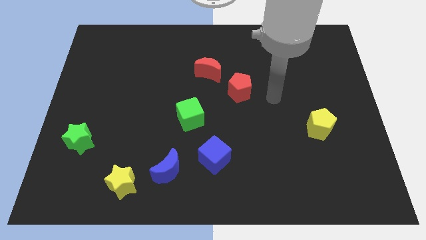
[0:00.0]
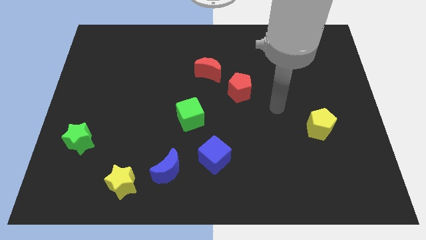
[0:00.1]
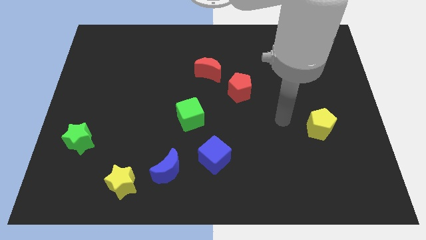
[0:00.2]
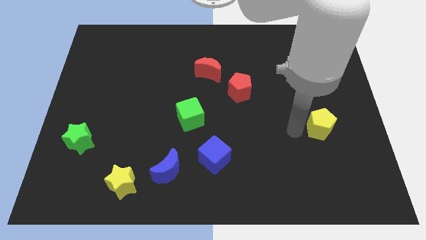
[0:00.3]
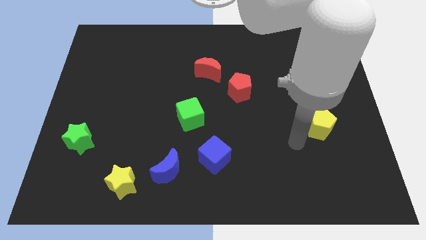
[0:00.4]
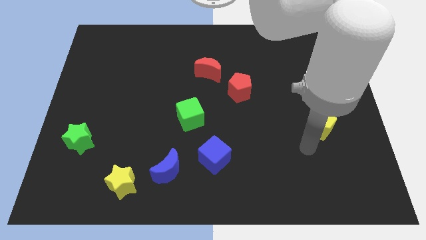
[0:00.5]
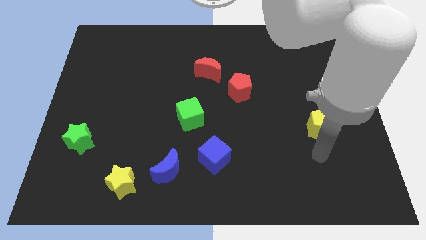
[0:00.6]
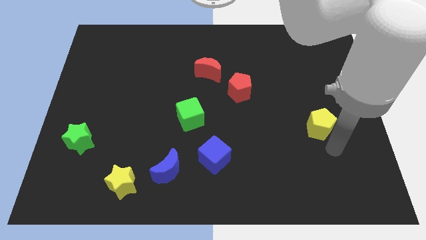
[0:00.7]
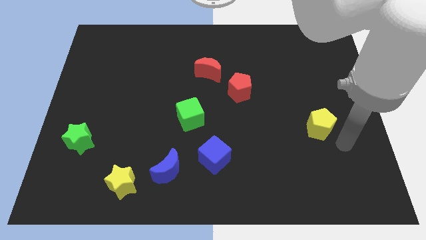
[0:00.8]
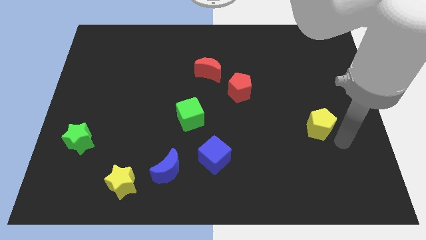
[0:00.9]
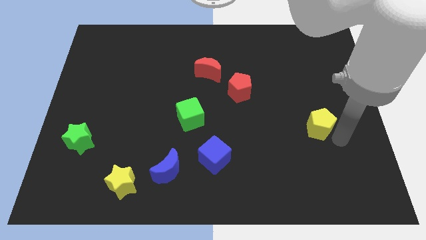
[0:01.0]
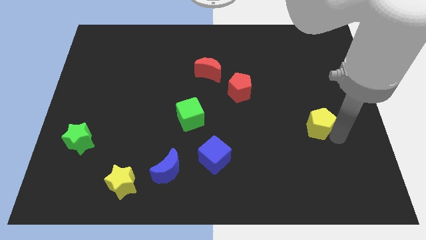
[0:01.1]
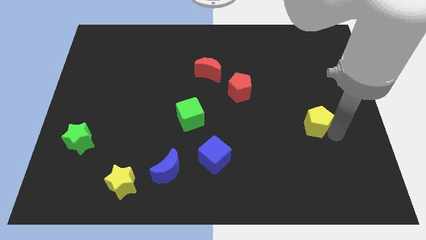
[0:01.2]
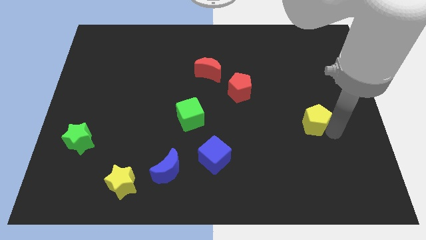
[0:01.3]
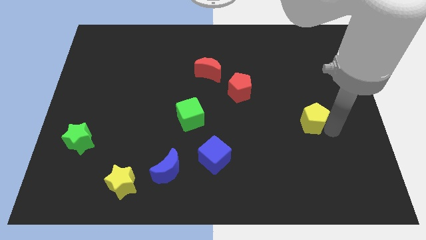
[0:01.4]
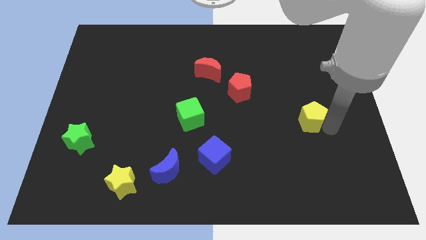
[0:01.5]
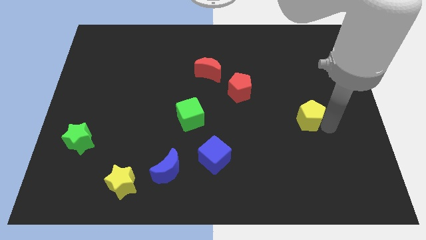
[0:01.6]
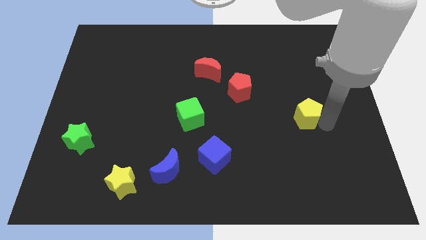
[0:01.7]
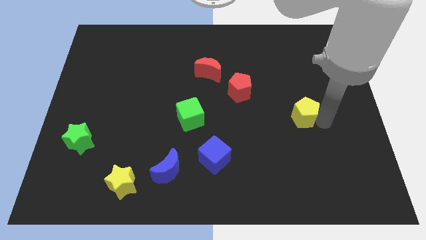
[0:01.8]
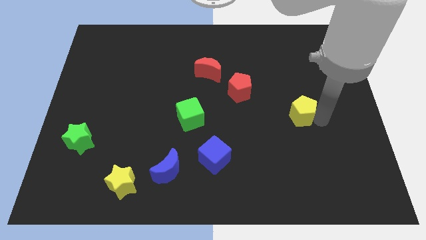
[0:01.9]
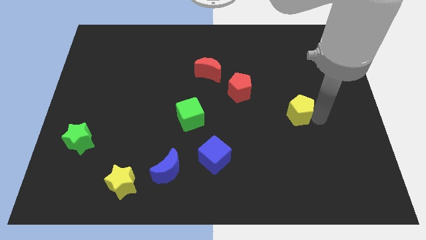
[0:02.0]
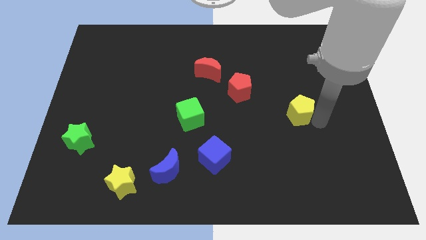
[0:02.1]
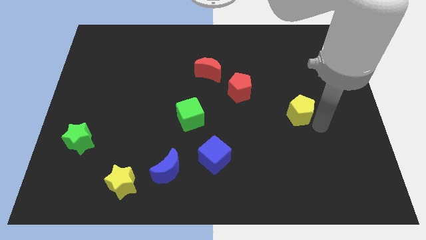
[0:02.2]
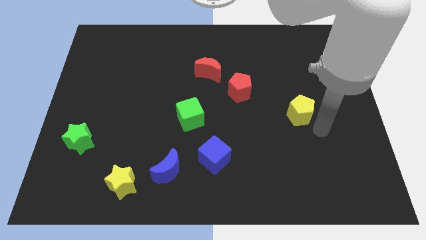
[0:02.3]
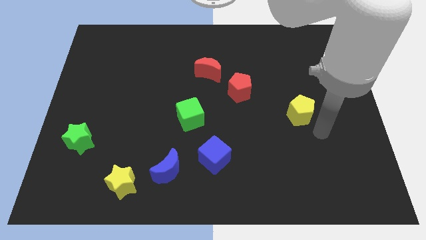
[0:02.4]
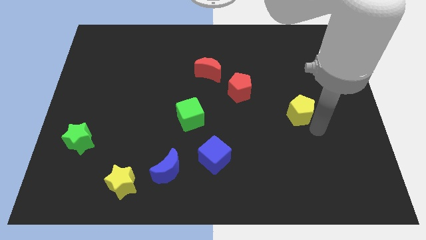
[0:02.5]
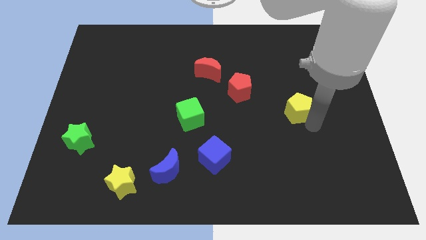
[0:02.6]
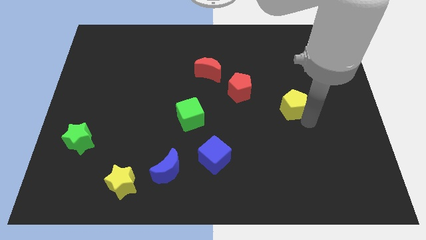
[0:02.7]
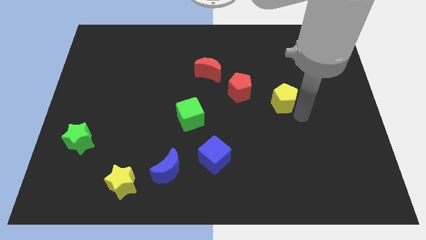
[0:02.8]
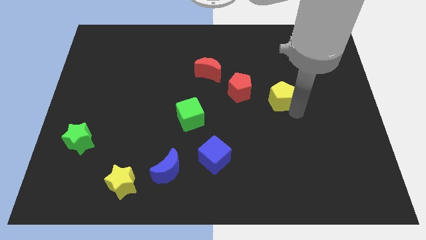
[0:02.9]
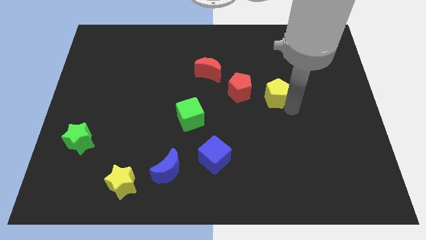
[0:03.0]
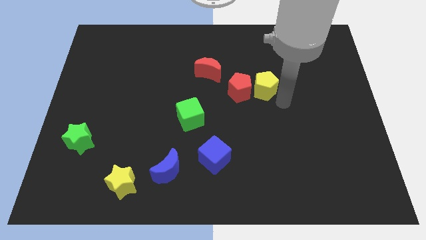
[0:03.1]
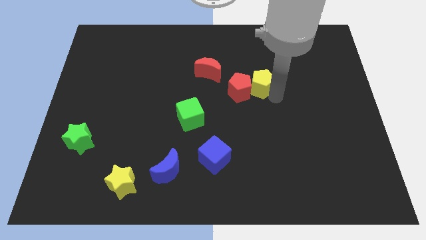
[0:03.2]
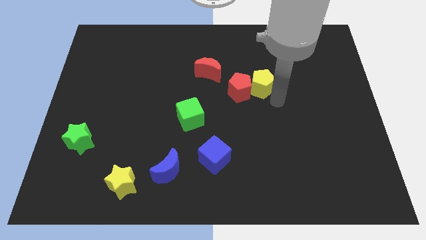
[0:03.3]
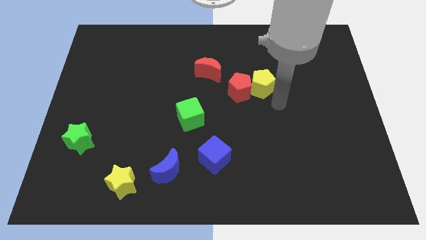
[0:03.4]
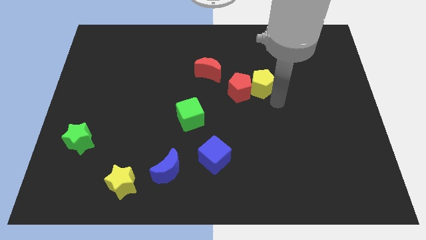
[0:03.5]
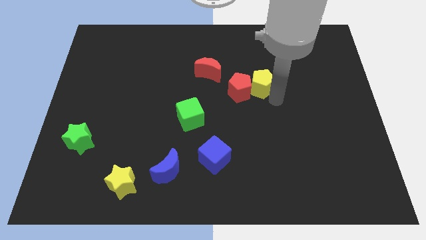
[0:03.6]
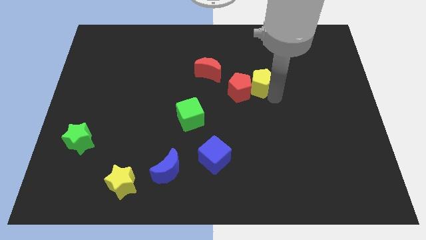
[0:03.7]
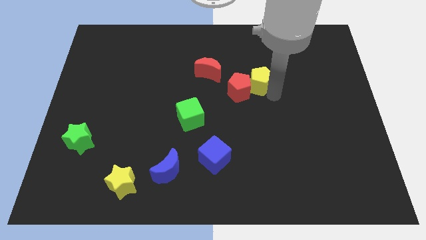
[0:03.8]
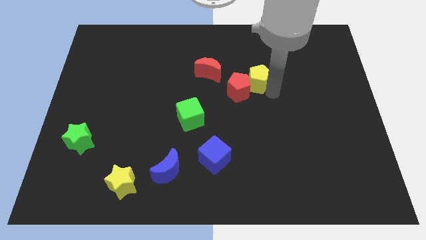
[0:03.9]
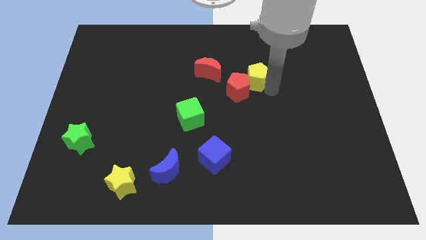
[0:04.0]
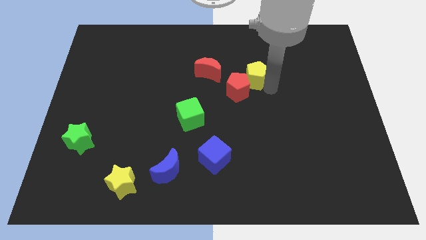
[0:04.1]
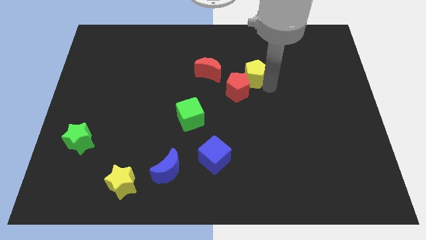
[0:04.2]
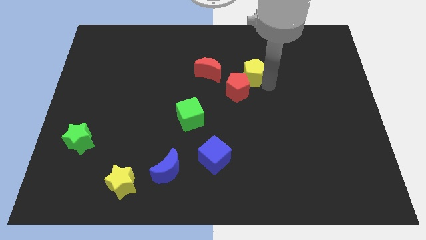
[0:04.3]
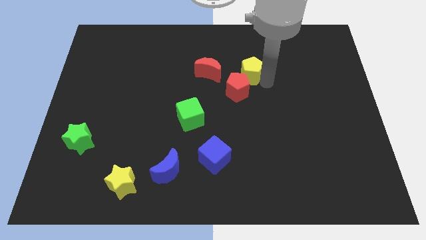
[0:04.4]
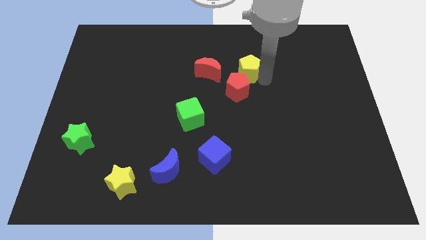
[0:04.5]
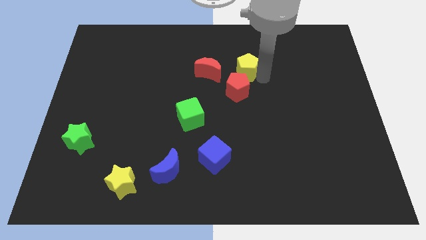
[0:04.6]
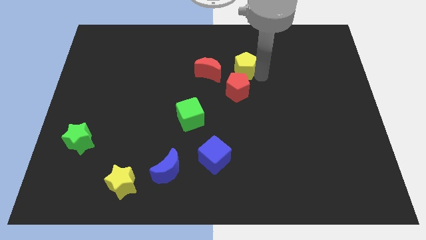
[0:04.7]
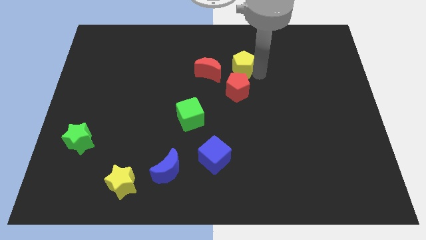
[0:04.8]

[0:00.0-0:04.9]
slide the yellow pentagon diagonally up and to the right of the red moon

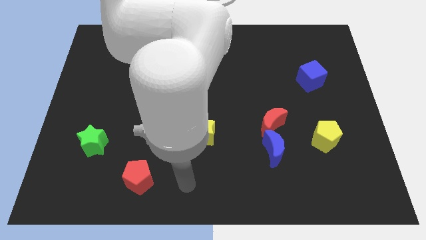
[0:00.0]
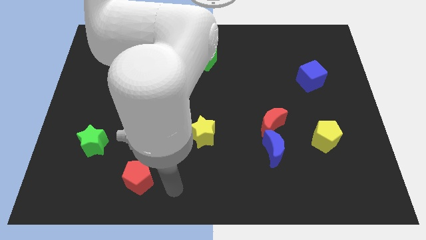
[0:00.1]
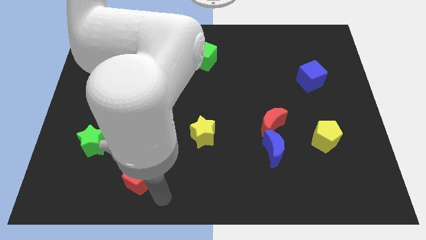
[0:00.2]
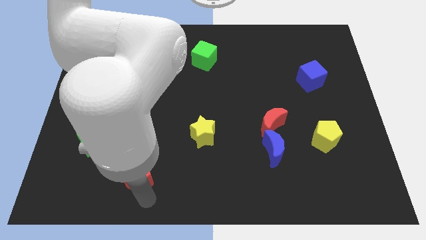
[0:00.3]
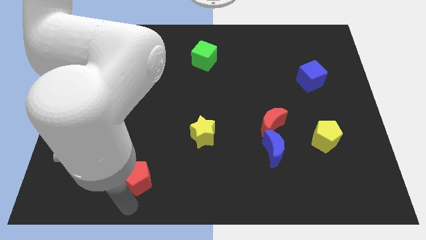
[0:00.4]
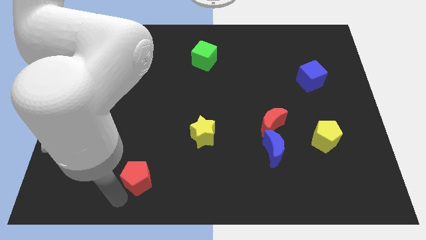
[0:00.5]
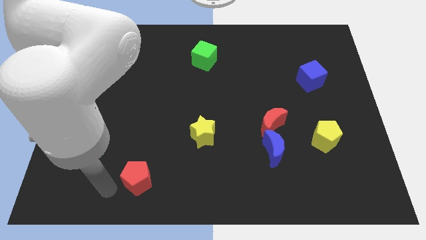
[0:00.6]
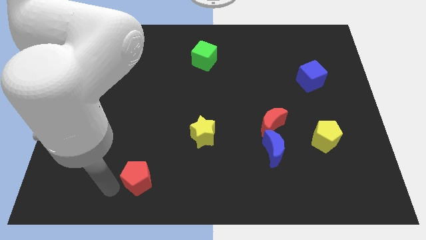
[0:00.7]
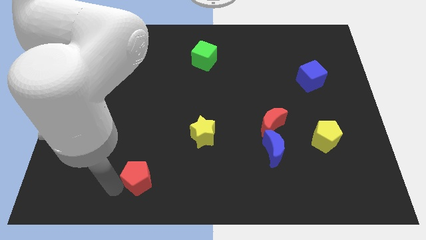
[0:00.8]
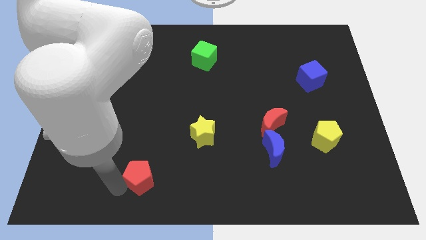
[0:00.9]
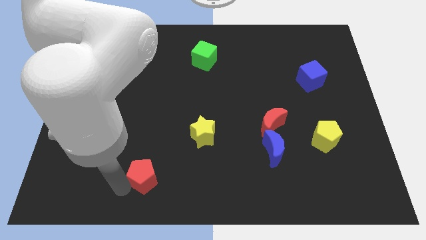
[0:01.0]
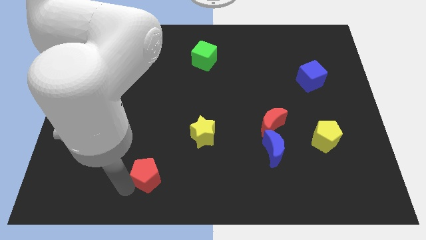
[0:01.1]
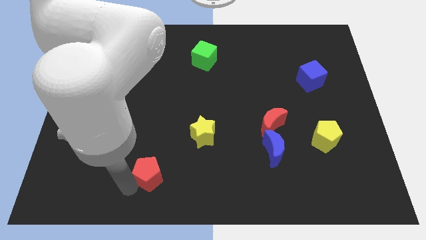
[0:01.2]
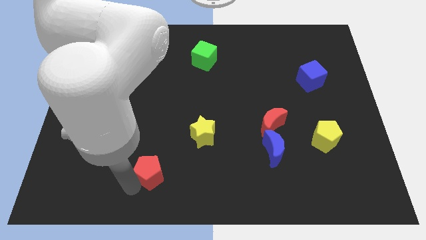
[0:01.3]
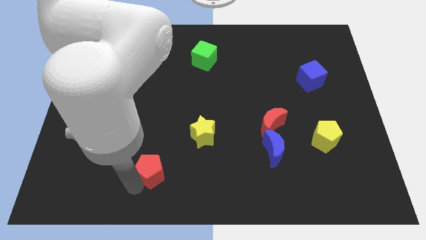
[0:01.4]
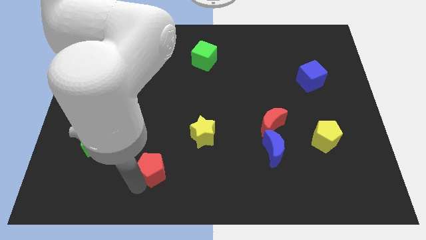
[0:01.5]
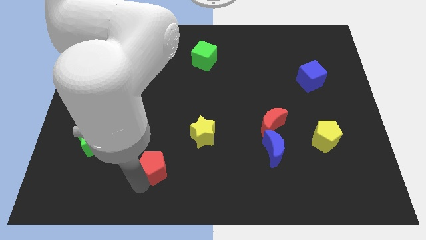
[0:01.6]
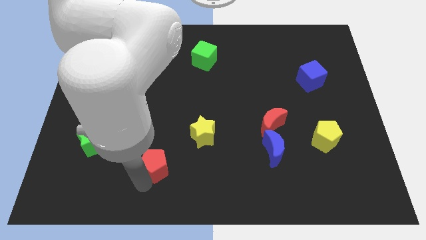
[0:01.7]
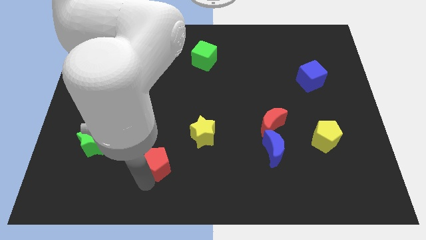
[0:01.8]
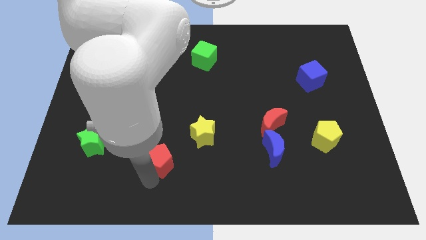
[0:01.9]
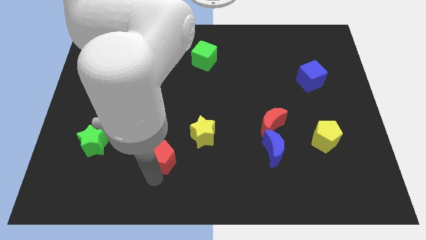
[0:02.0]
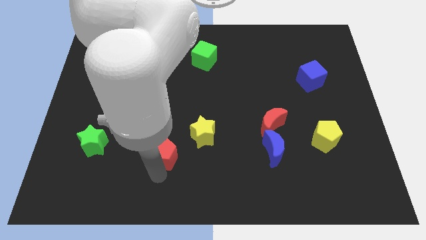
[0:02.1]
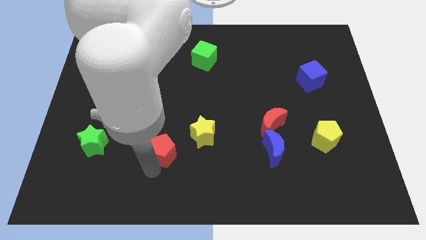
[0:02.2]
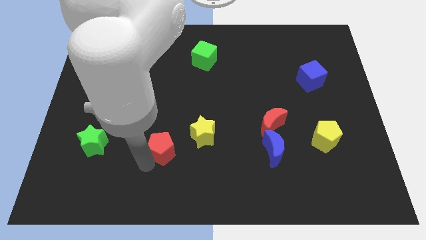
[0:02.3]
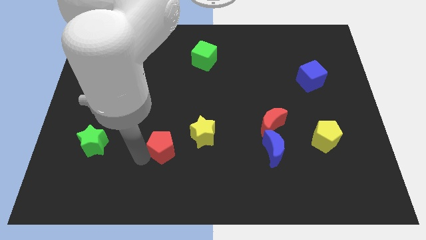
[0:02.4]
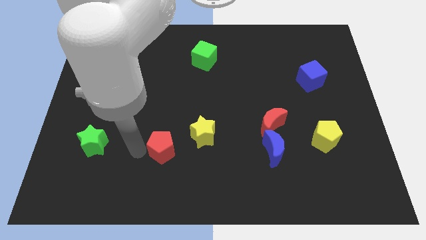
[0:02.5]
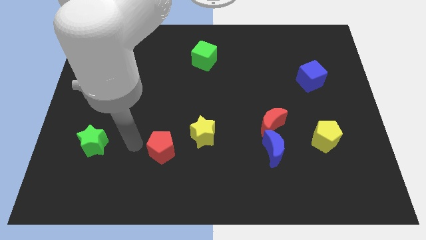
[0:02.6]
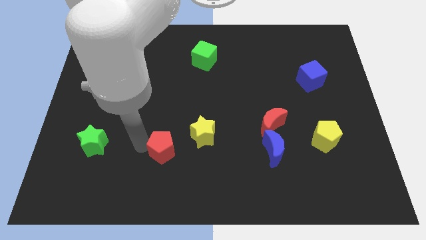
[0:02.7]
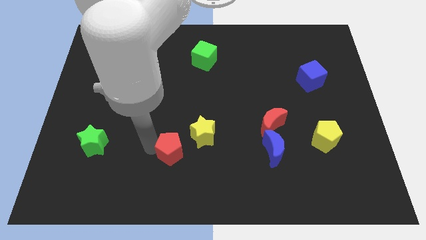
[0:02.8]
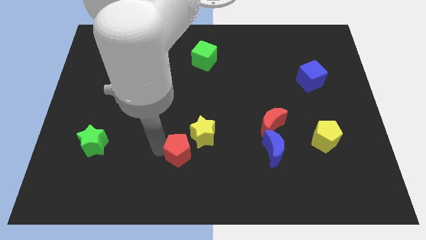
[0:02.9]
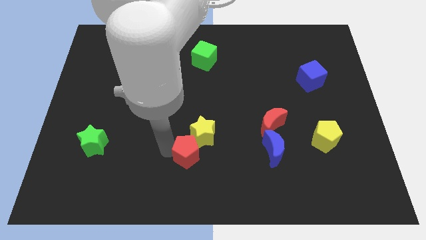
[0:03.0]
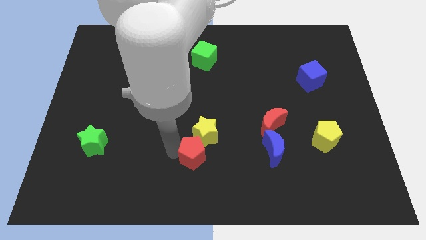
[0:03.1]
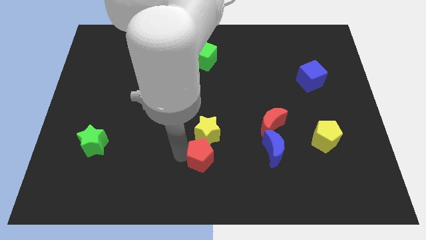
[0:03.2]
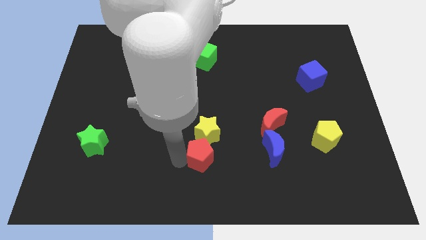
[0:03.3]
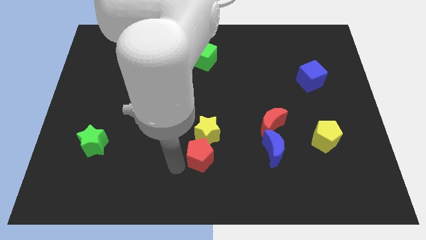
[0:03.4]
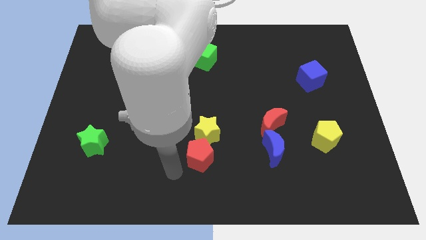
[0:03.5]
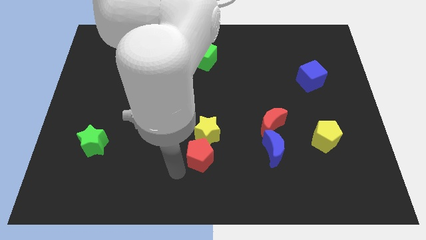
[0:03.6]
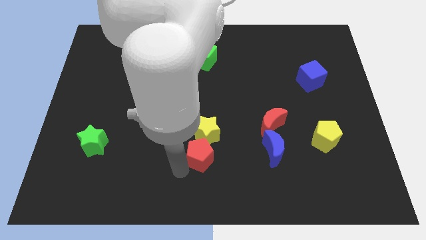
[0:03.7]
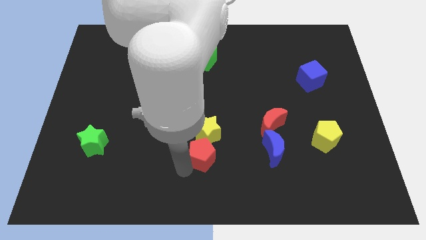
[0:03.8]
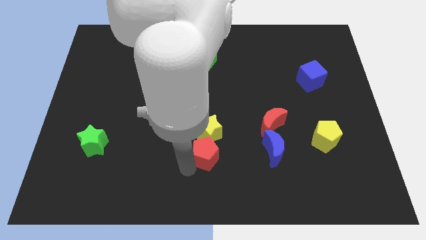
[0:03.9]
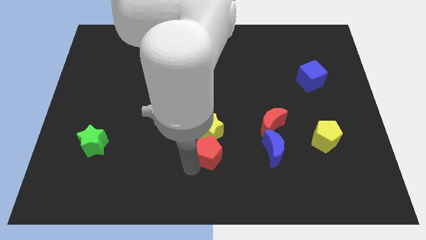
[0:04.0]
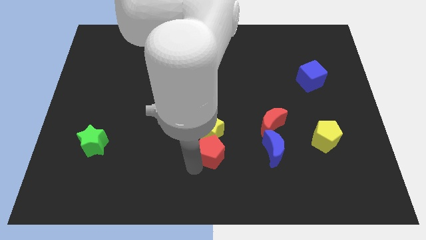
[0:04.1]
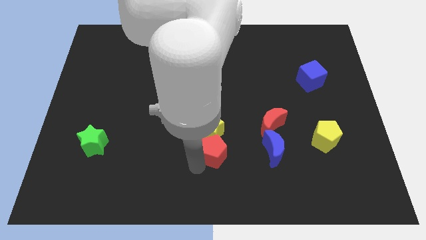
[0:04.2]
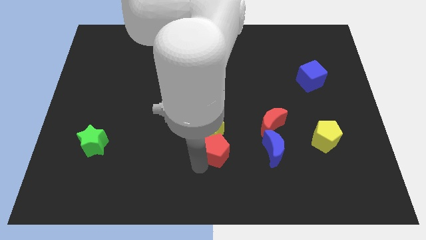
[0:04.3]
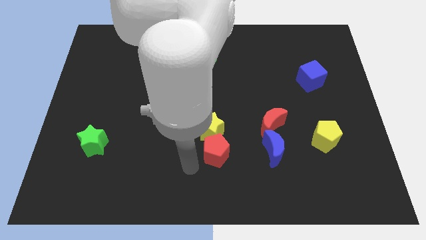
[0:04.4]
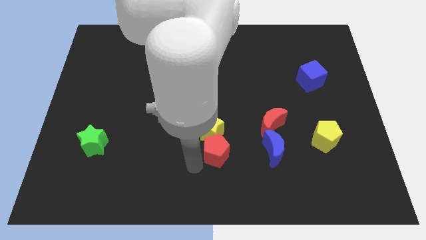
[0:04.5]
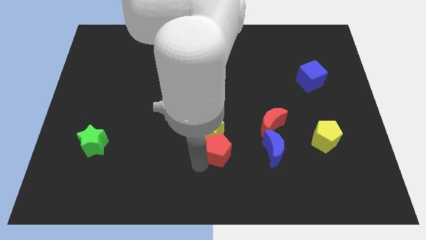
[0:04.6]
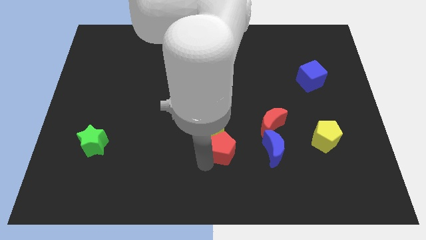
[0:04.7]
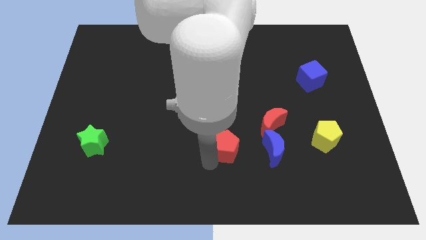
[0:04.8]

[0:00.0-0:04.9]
slide the red pentagon just right of the yellow star
